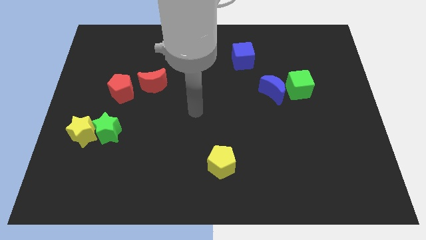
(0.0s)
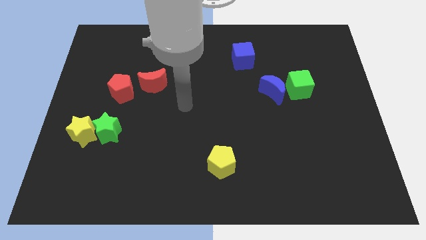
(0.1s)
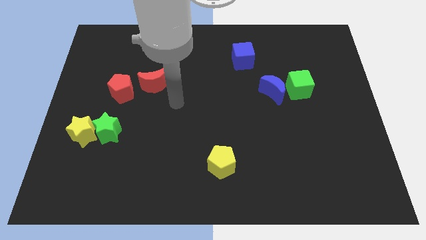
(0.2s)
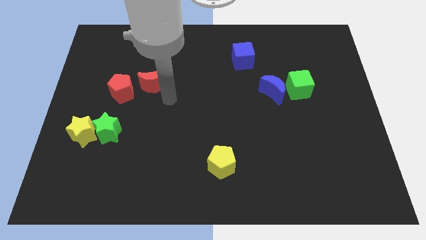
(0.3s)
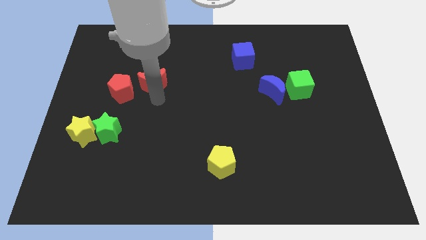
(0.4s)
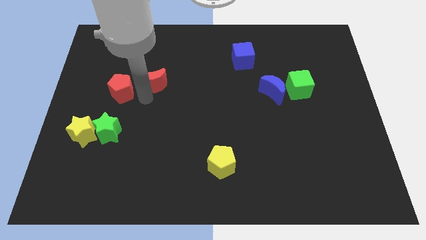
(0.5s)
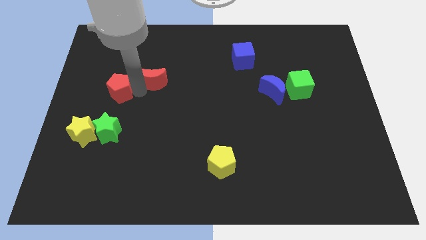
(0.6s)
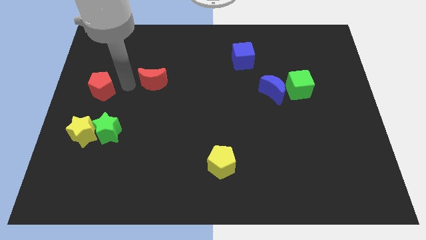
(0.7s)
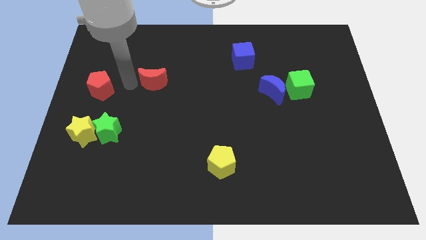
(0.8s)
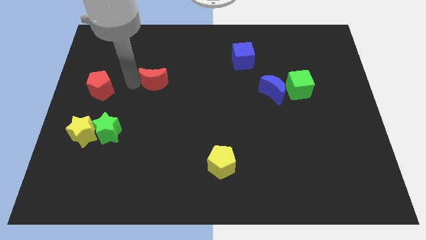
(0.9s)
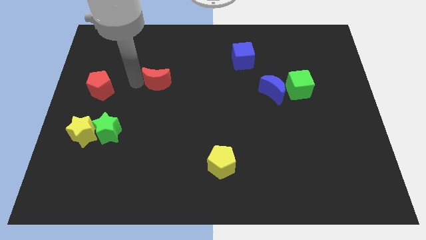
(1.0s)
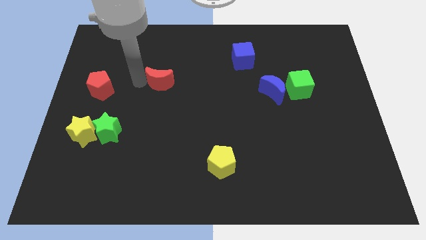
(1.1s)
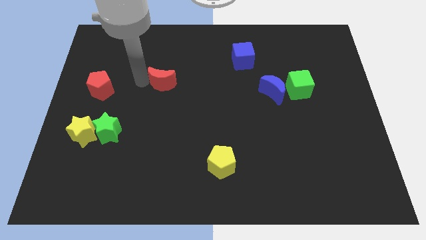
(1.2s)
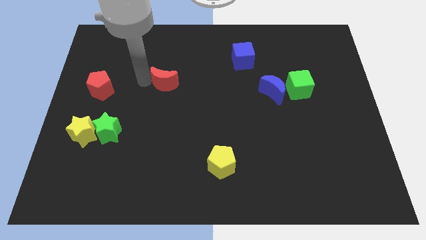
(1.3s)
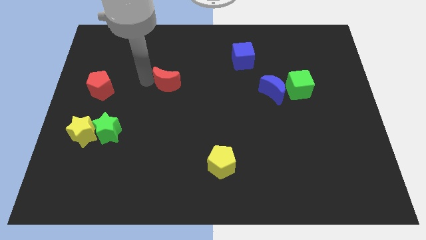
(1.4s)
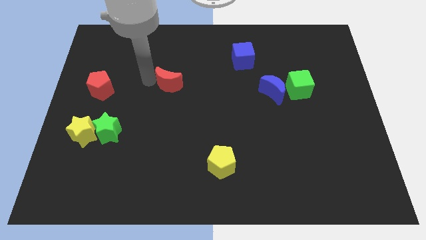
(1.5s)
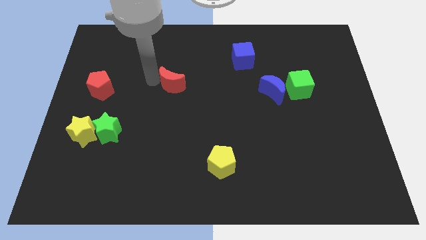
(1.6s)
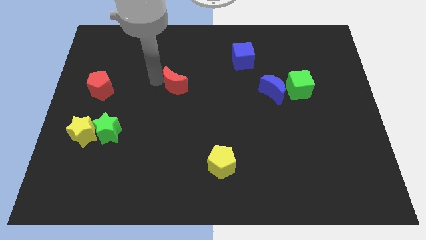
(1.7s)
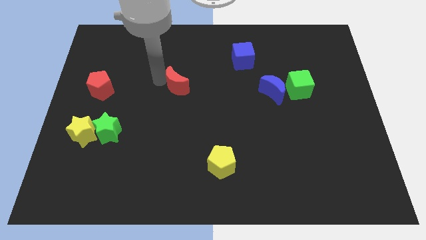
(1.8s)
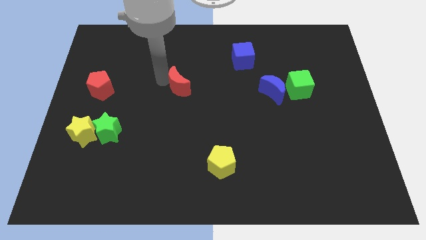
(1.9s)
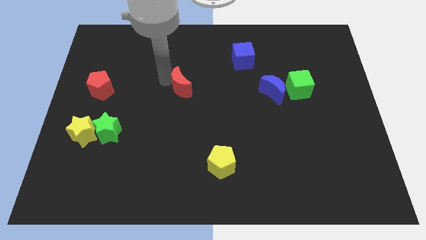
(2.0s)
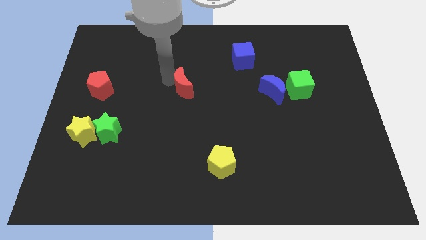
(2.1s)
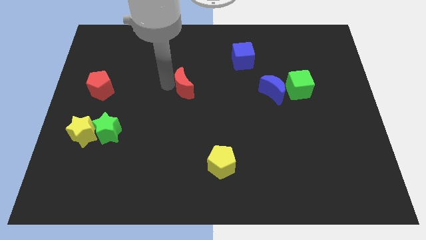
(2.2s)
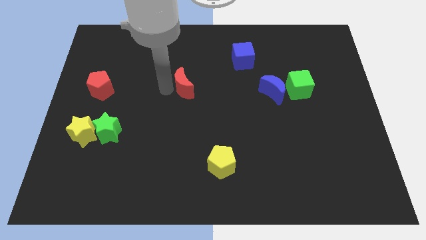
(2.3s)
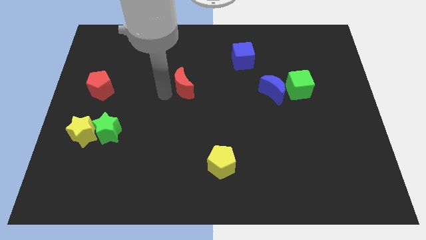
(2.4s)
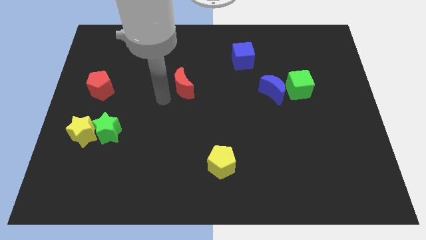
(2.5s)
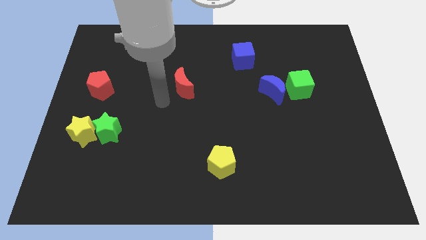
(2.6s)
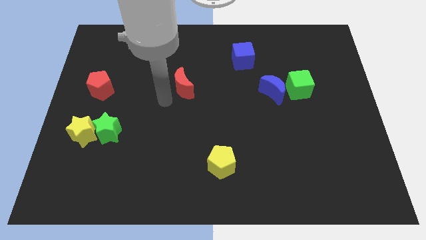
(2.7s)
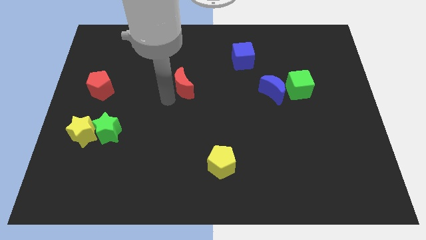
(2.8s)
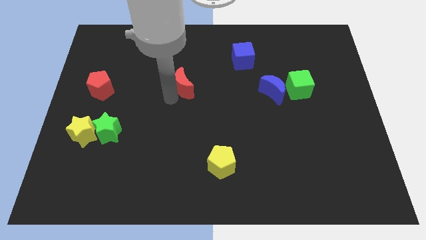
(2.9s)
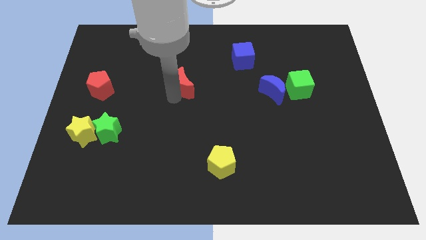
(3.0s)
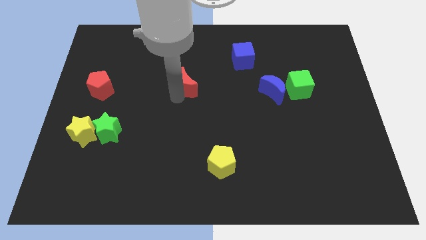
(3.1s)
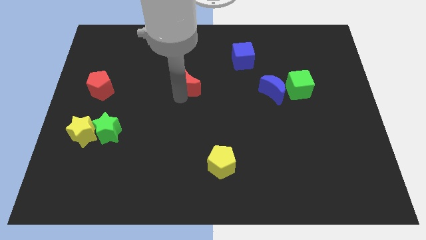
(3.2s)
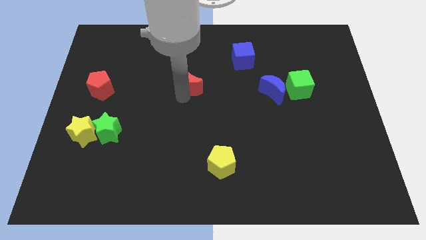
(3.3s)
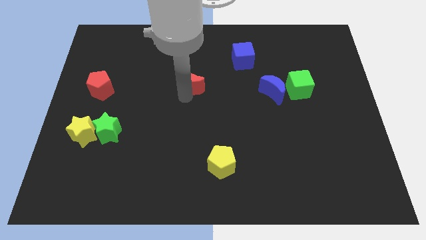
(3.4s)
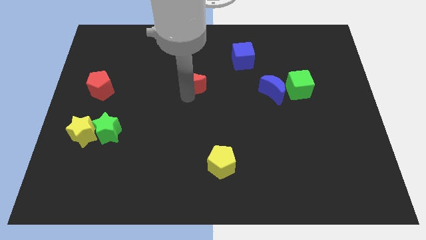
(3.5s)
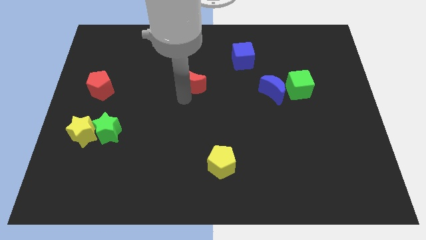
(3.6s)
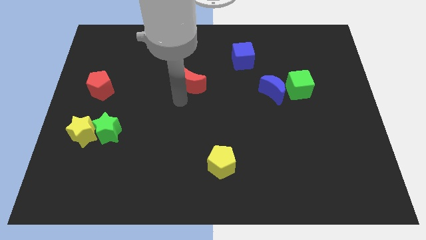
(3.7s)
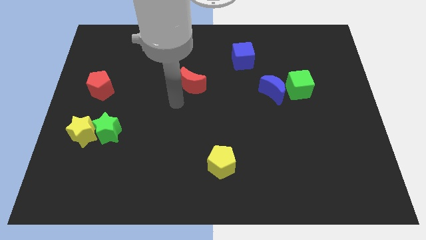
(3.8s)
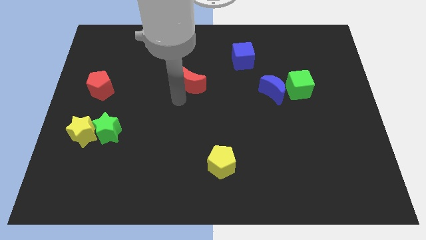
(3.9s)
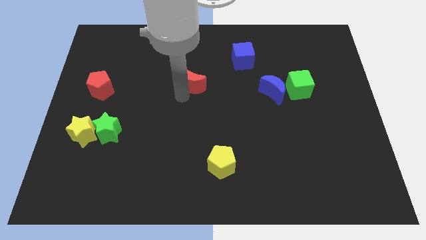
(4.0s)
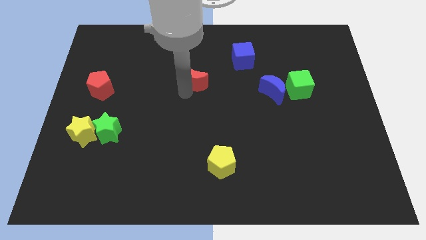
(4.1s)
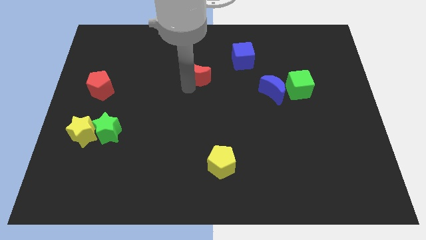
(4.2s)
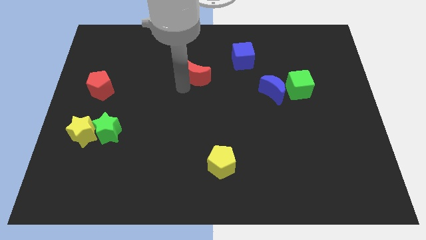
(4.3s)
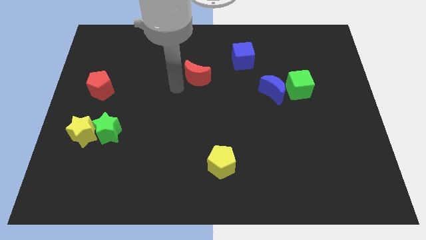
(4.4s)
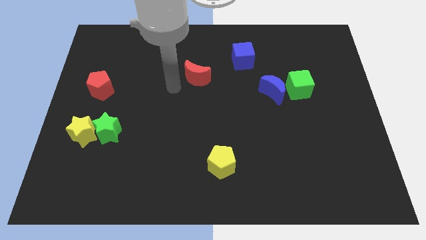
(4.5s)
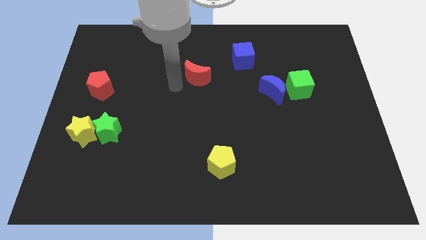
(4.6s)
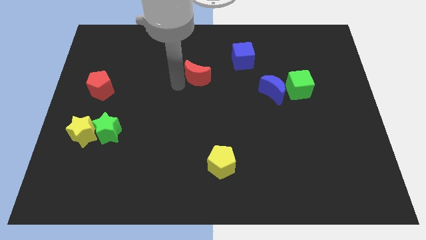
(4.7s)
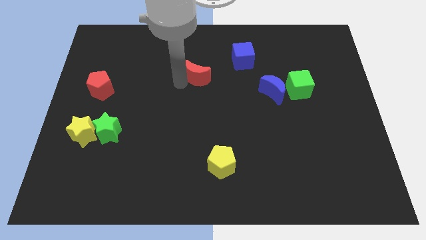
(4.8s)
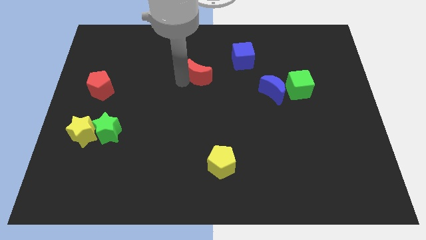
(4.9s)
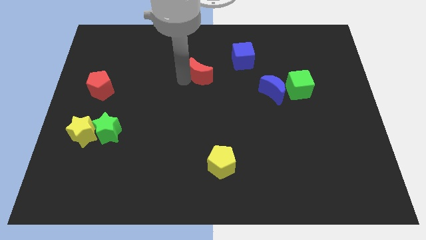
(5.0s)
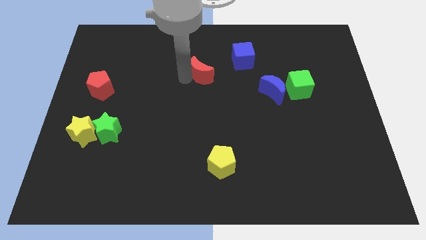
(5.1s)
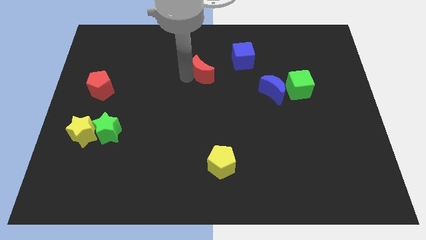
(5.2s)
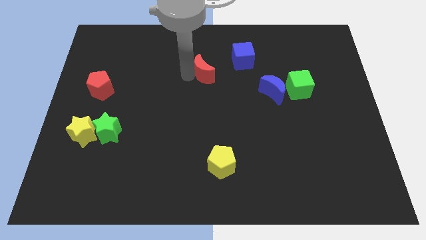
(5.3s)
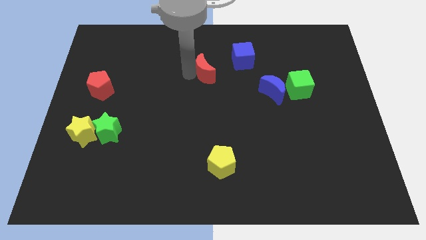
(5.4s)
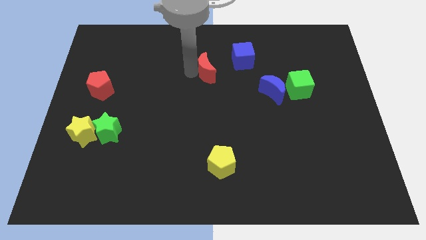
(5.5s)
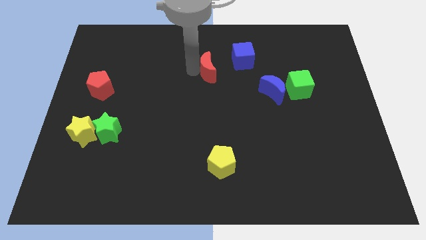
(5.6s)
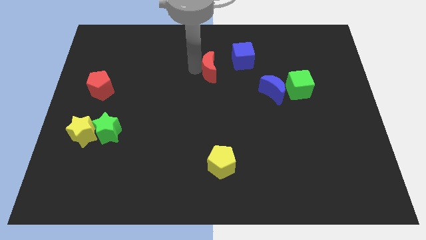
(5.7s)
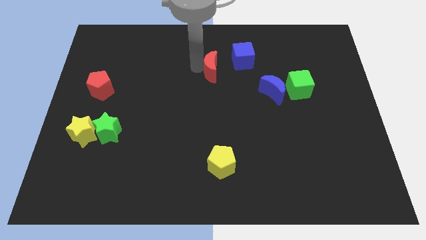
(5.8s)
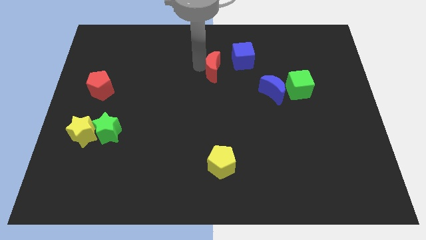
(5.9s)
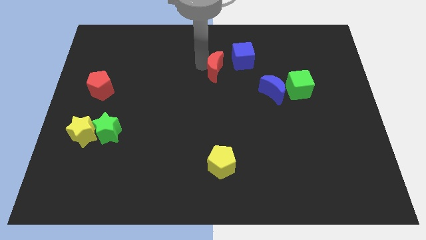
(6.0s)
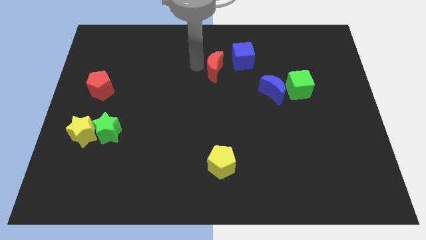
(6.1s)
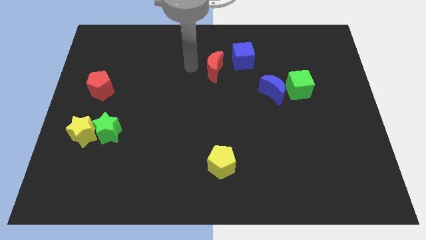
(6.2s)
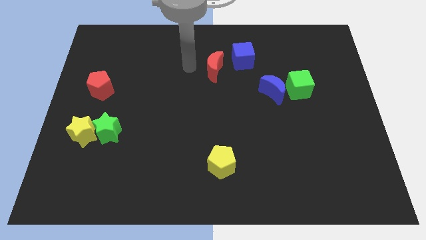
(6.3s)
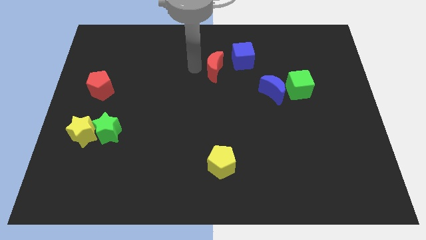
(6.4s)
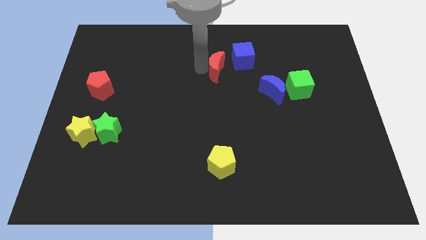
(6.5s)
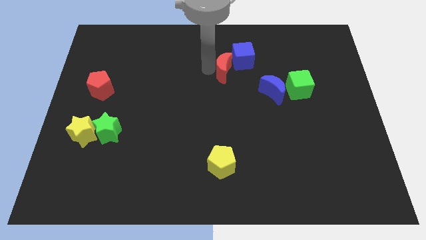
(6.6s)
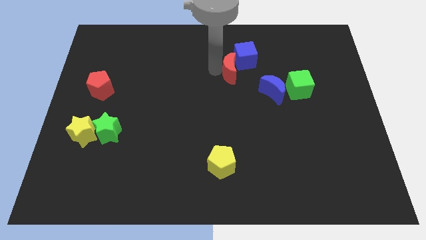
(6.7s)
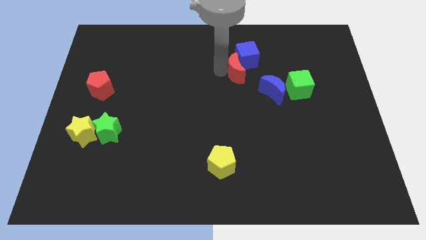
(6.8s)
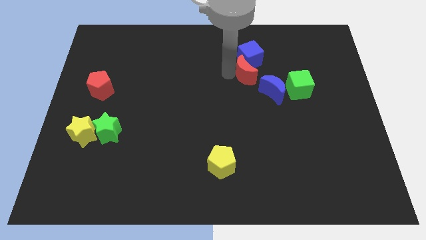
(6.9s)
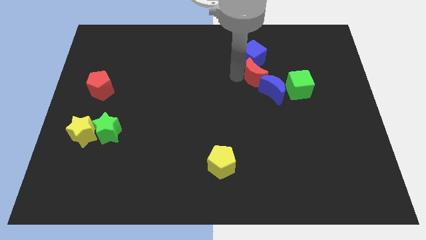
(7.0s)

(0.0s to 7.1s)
move the red moon to the top of the blue moon

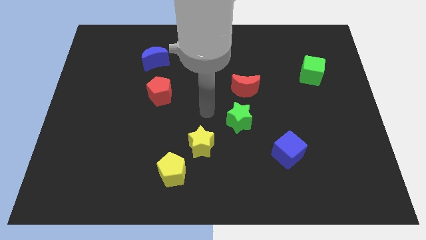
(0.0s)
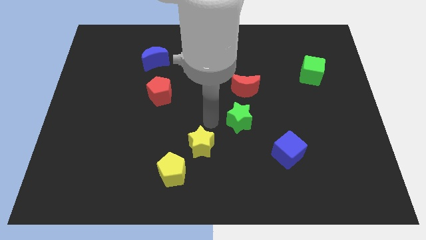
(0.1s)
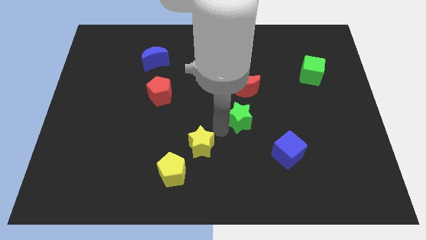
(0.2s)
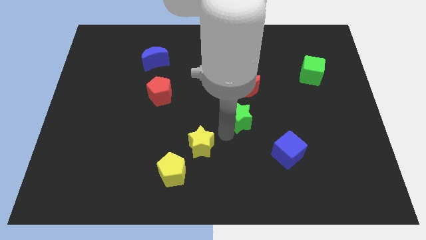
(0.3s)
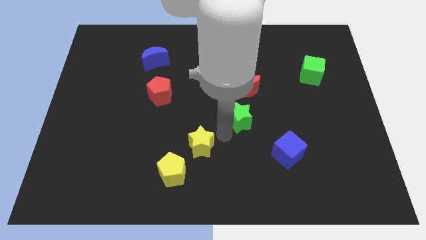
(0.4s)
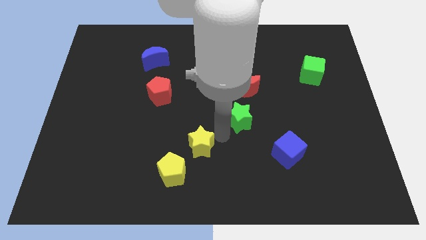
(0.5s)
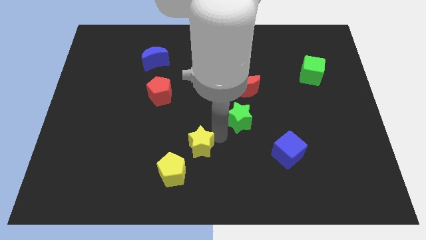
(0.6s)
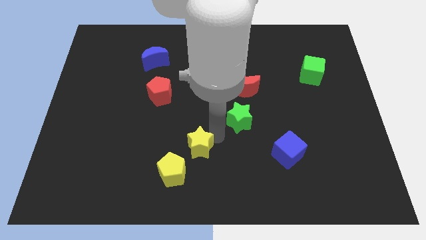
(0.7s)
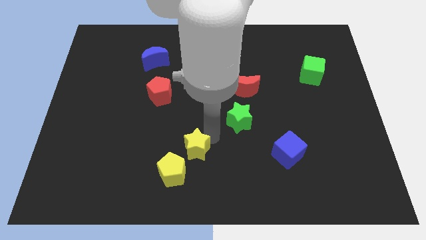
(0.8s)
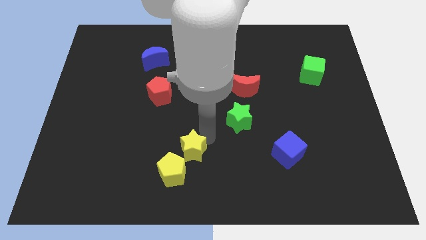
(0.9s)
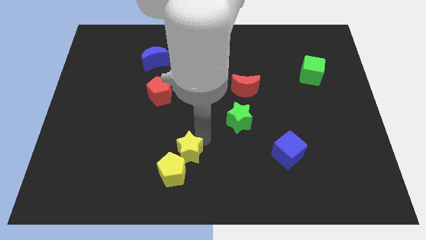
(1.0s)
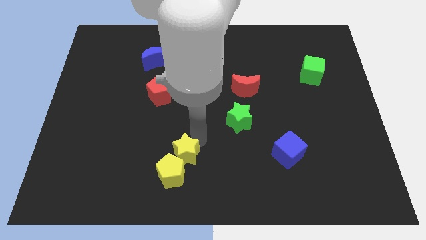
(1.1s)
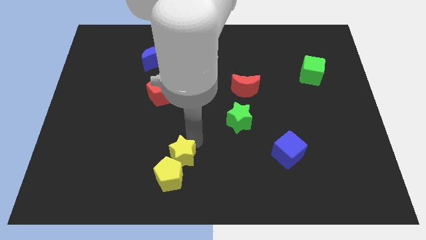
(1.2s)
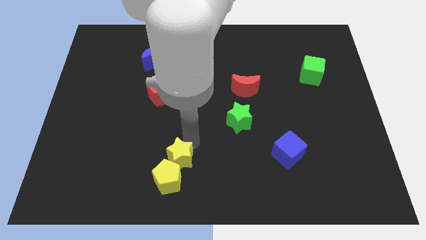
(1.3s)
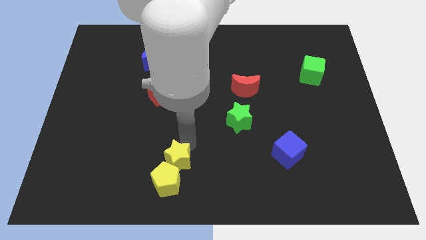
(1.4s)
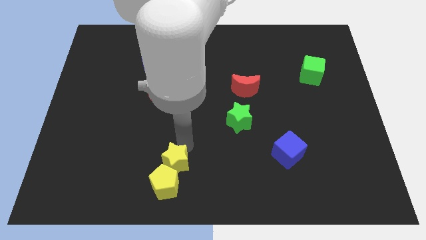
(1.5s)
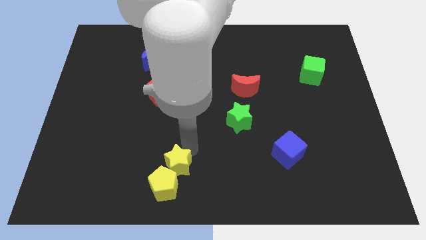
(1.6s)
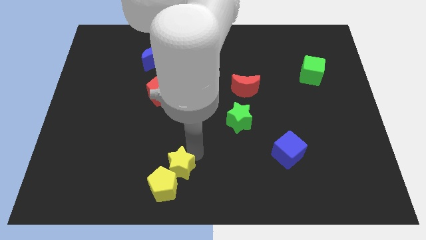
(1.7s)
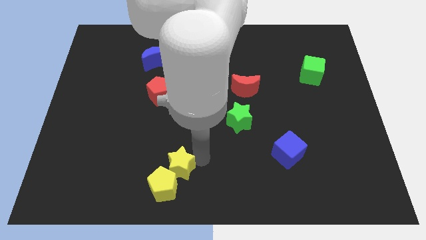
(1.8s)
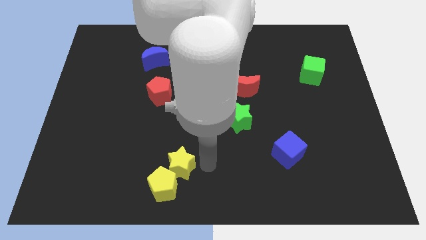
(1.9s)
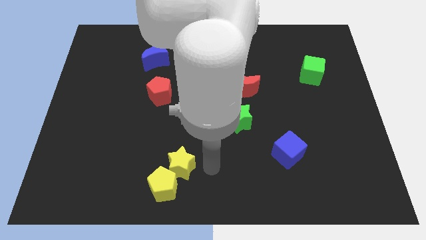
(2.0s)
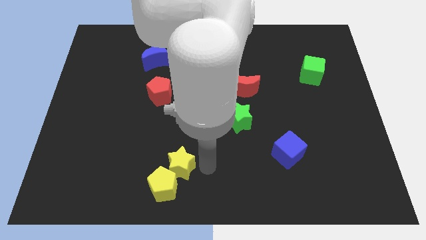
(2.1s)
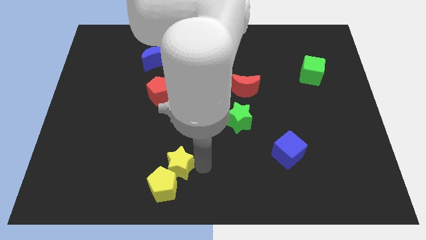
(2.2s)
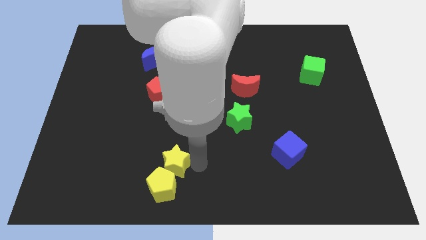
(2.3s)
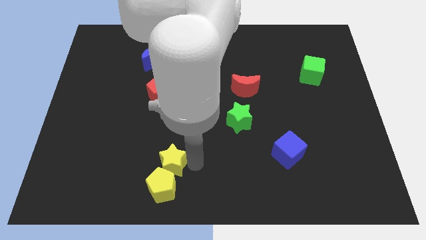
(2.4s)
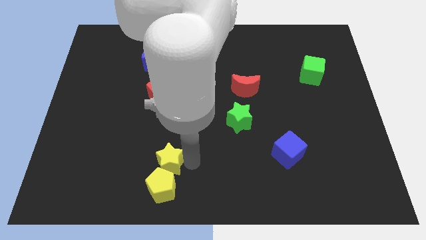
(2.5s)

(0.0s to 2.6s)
move the yellow star diagonally up and to the left of the yellow pentagon
